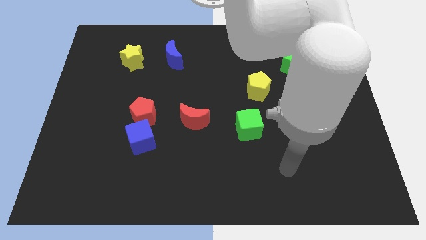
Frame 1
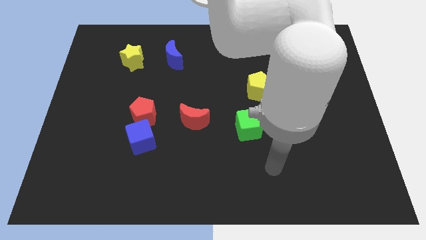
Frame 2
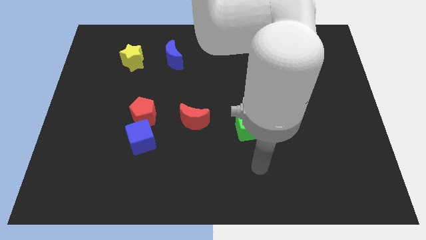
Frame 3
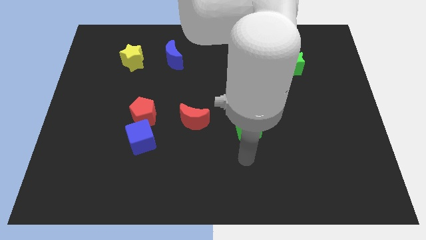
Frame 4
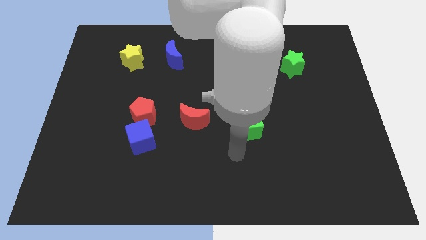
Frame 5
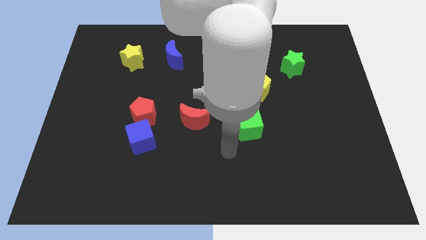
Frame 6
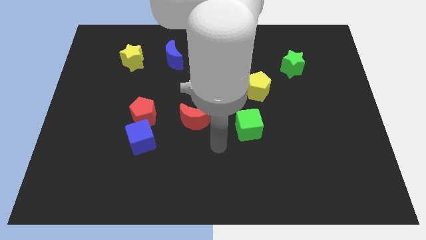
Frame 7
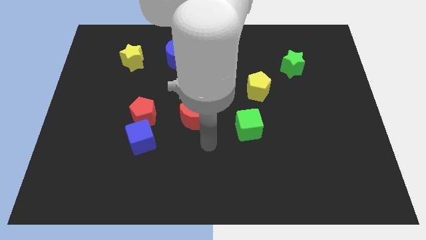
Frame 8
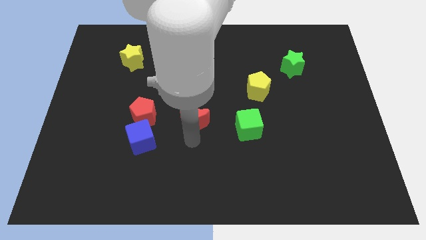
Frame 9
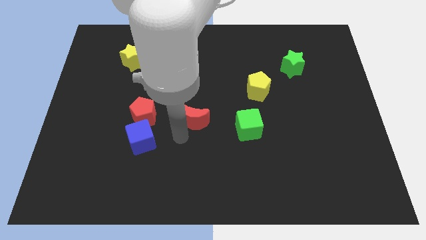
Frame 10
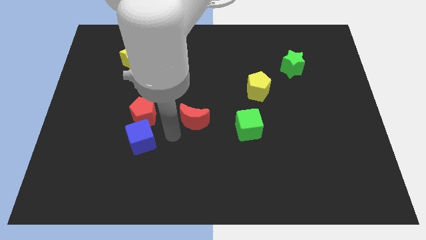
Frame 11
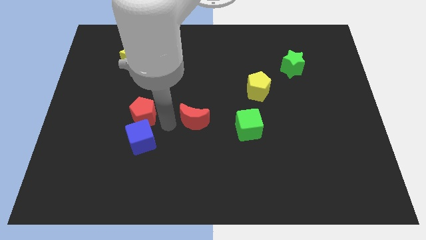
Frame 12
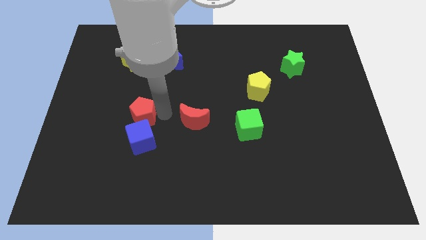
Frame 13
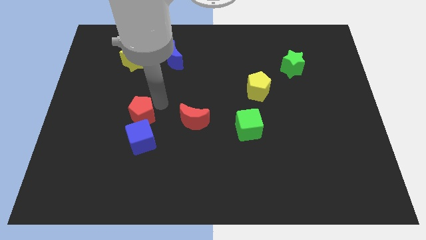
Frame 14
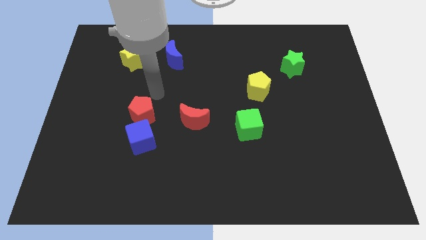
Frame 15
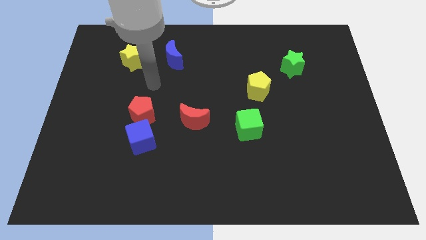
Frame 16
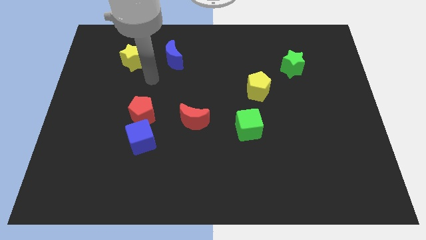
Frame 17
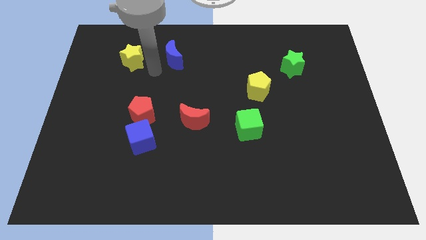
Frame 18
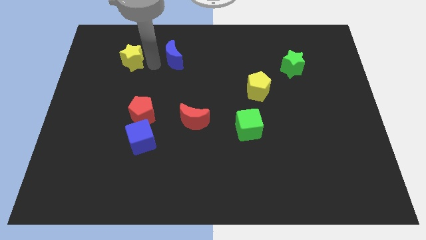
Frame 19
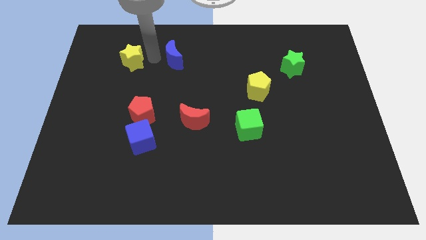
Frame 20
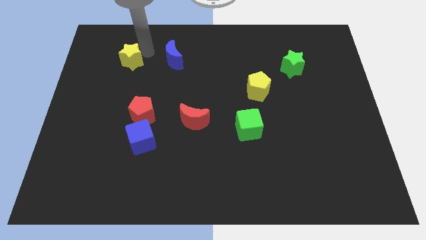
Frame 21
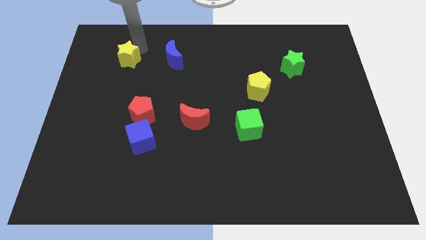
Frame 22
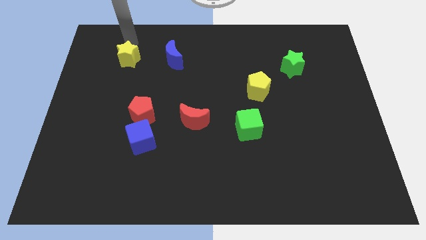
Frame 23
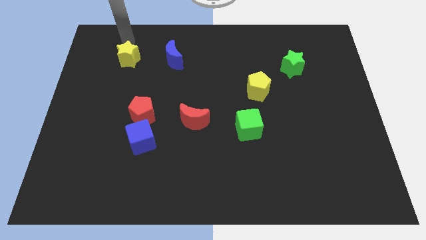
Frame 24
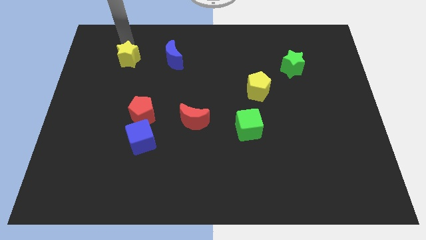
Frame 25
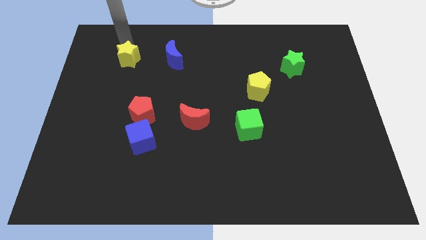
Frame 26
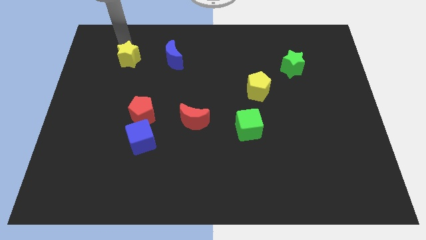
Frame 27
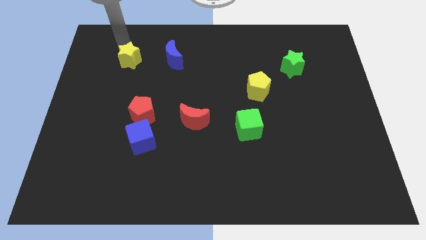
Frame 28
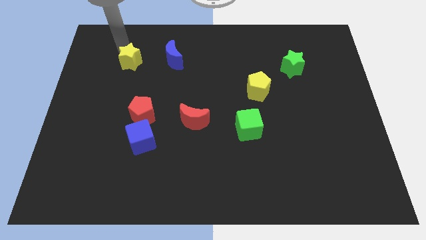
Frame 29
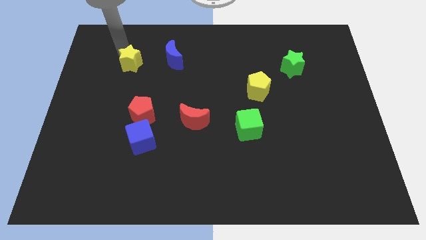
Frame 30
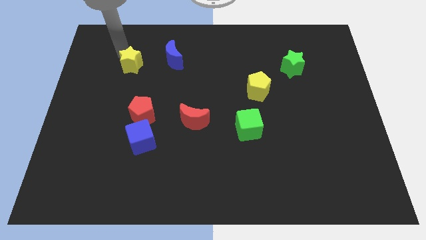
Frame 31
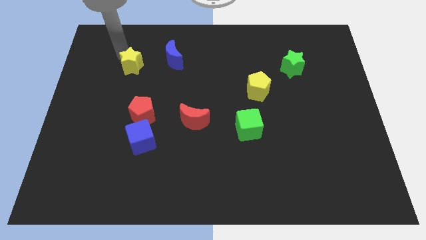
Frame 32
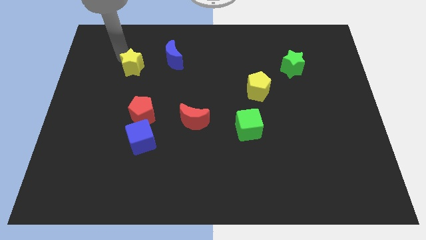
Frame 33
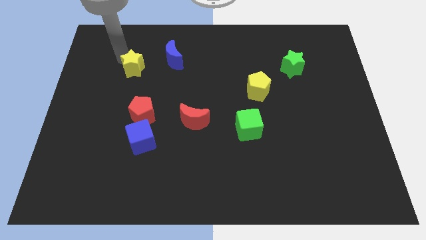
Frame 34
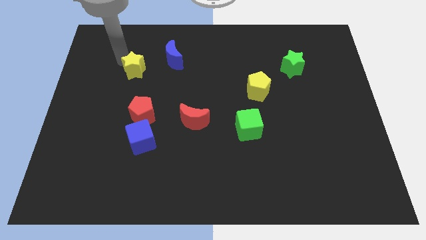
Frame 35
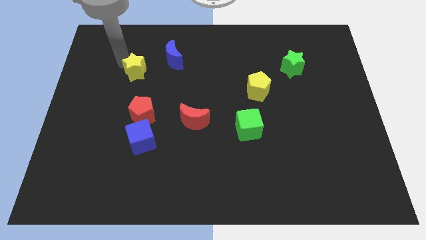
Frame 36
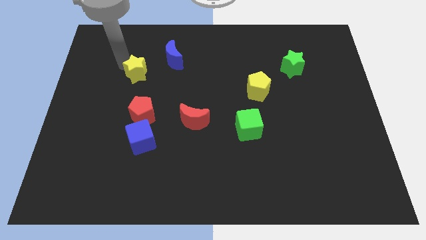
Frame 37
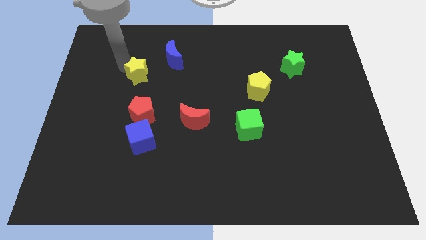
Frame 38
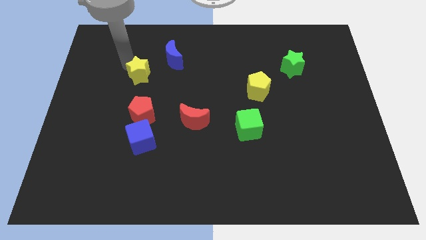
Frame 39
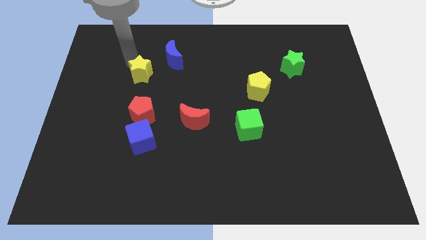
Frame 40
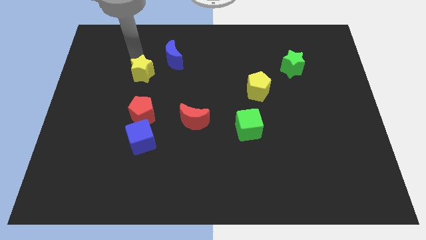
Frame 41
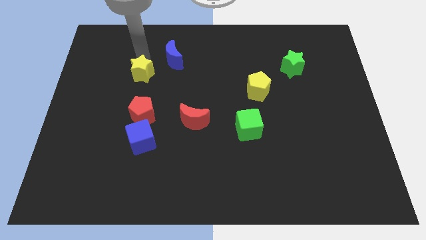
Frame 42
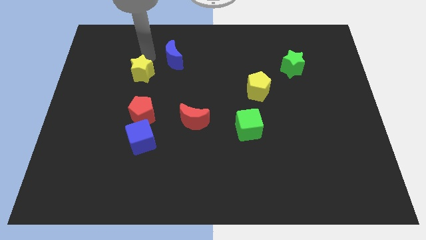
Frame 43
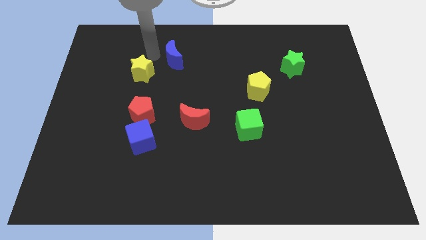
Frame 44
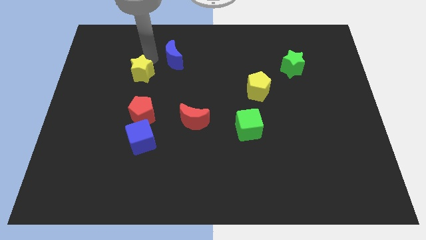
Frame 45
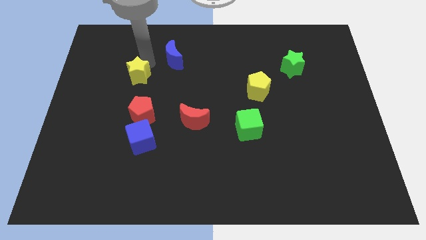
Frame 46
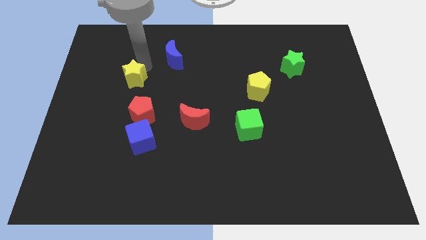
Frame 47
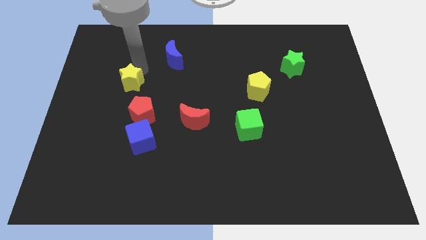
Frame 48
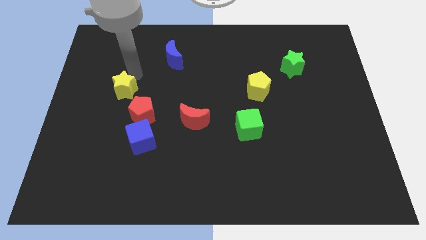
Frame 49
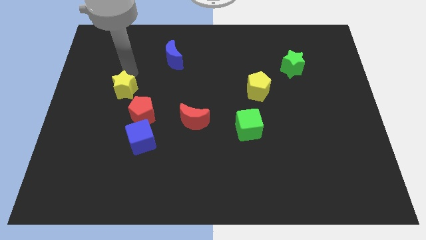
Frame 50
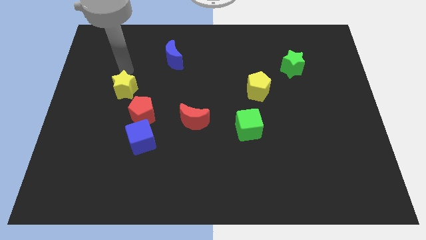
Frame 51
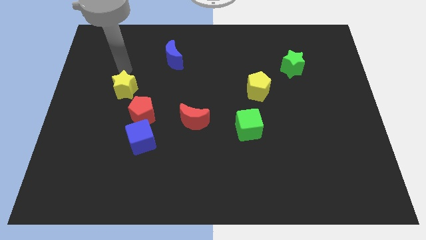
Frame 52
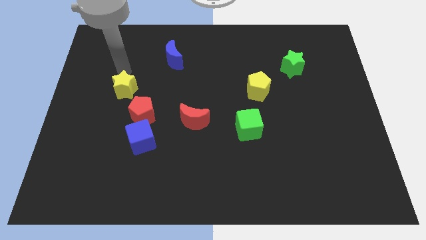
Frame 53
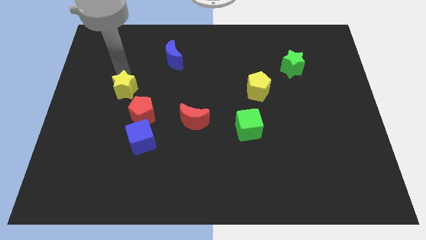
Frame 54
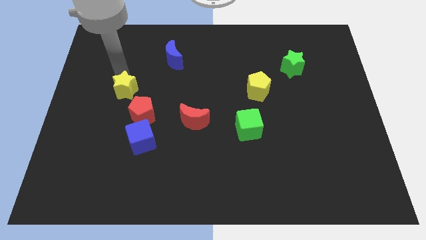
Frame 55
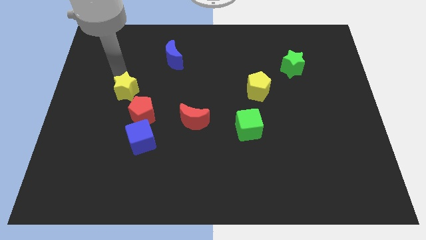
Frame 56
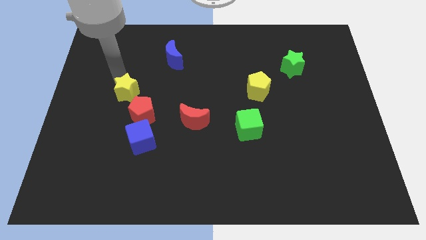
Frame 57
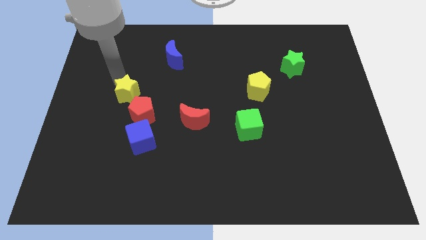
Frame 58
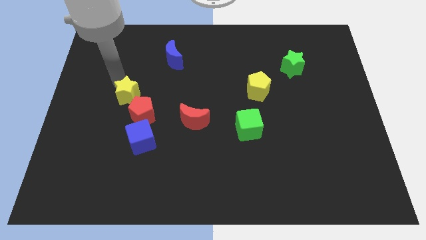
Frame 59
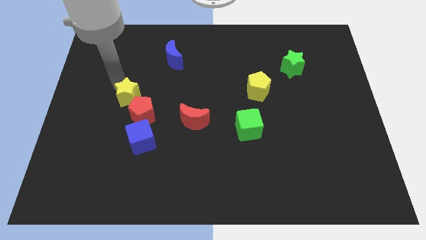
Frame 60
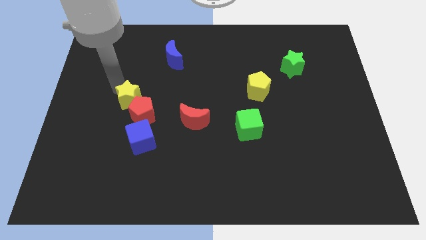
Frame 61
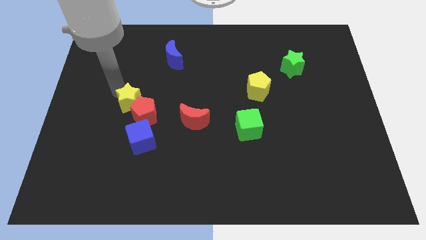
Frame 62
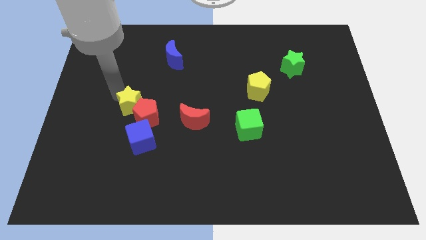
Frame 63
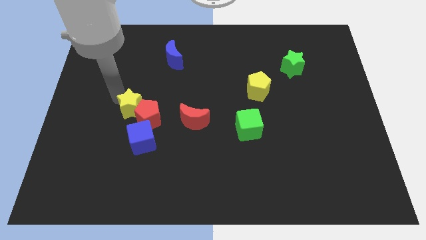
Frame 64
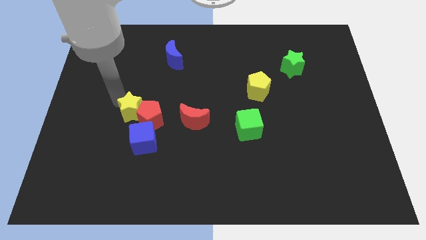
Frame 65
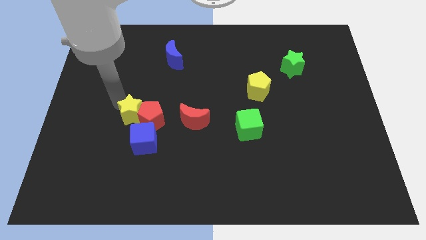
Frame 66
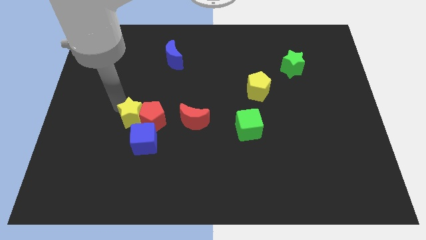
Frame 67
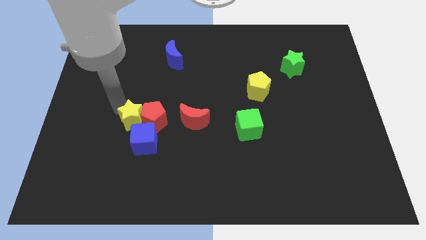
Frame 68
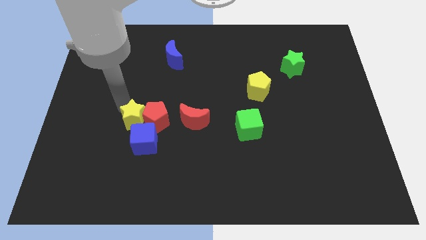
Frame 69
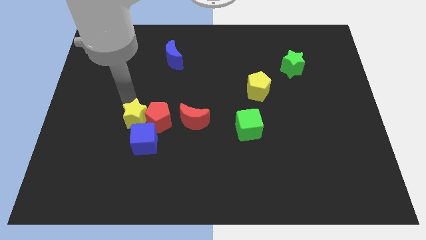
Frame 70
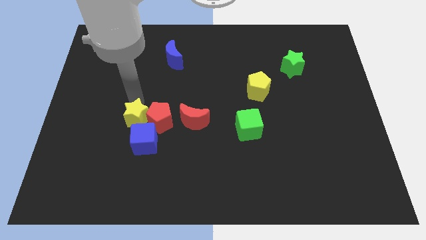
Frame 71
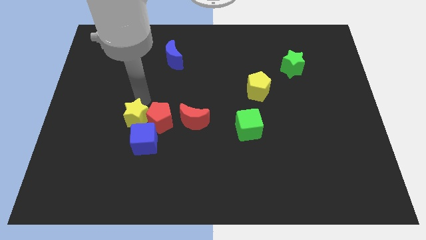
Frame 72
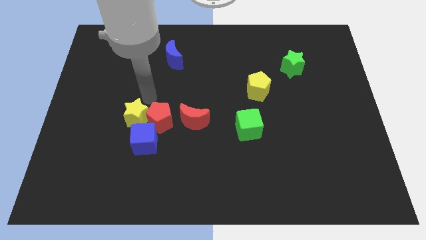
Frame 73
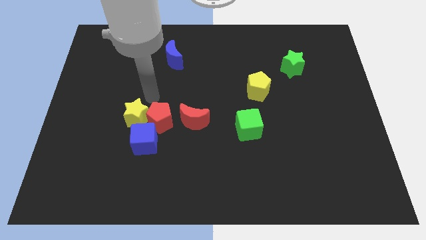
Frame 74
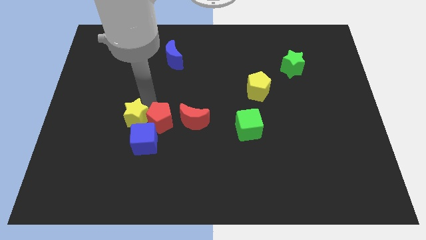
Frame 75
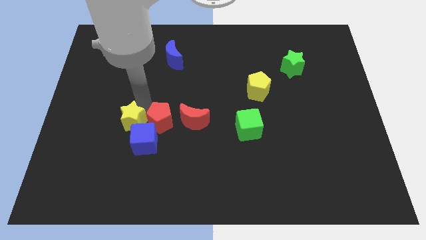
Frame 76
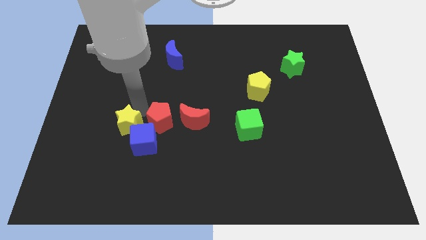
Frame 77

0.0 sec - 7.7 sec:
slide the yellow star downwards

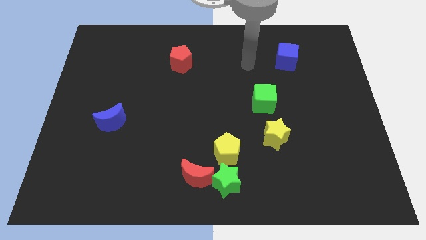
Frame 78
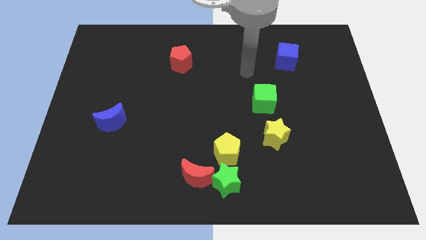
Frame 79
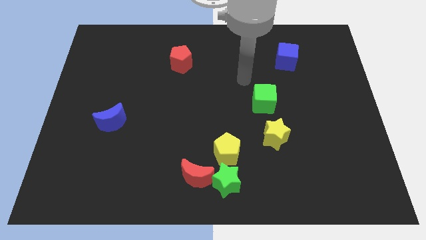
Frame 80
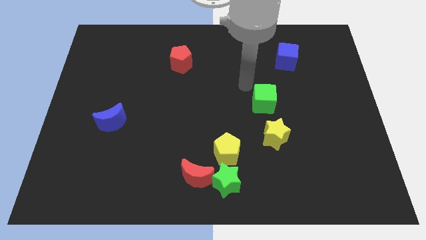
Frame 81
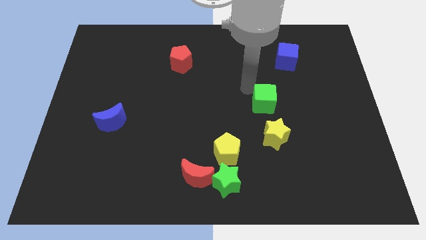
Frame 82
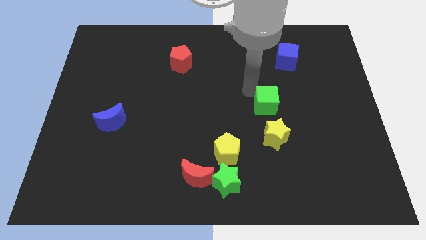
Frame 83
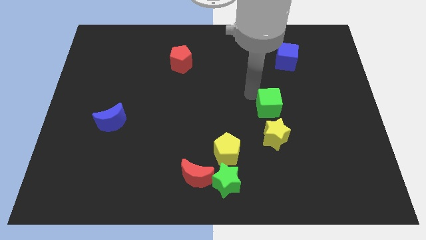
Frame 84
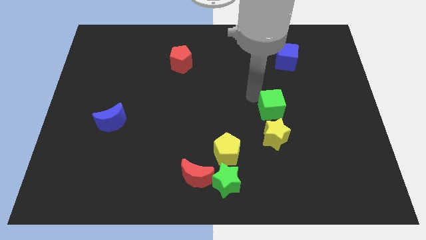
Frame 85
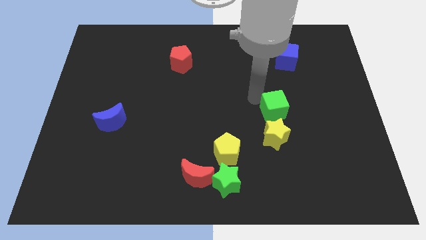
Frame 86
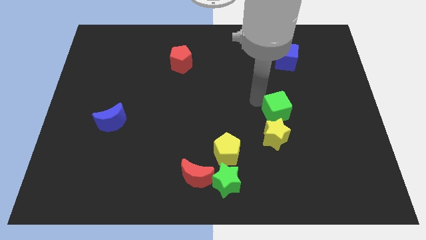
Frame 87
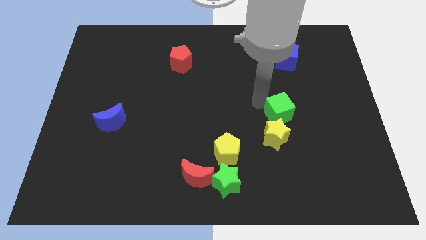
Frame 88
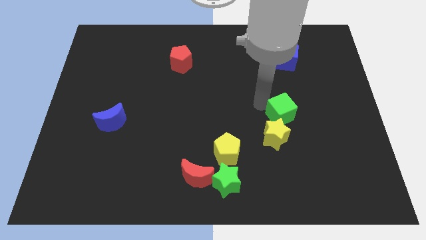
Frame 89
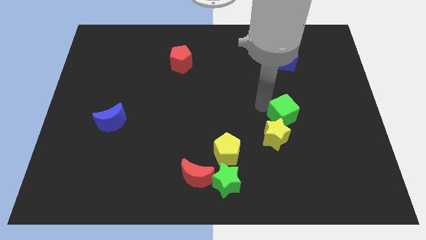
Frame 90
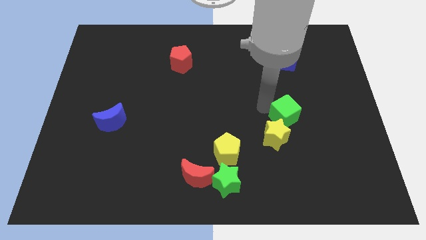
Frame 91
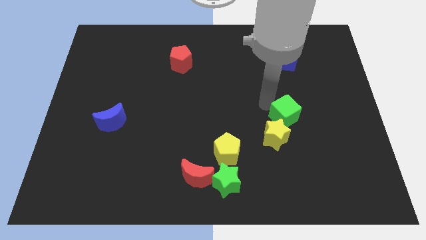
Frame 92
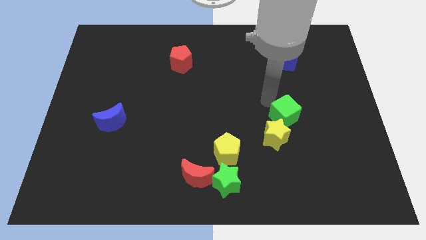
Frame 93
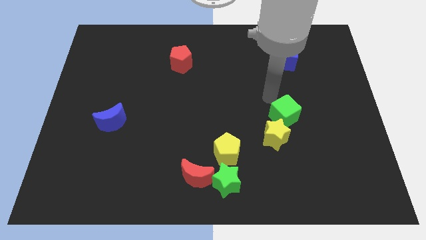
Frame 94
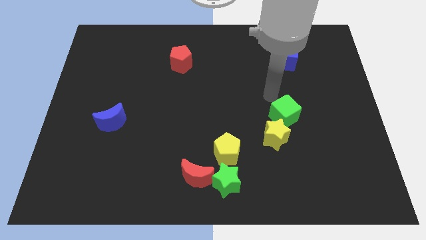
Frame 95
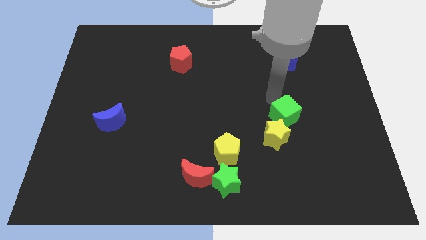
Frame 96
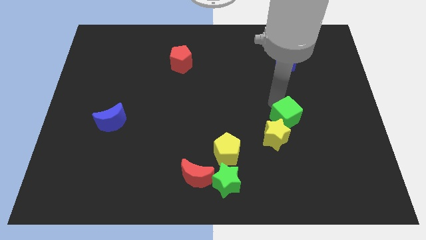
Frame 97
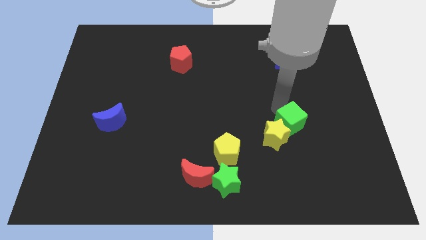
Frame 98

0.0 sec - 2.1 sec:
slightly move the green cube downwards and right
